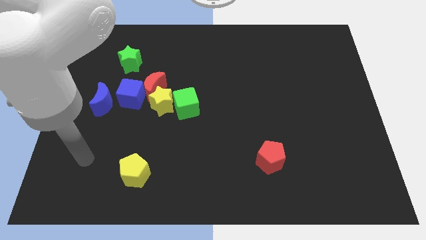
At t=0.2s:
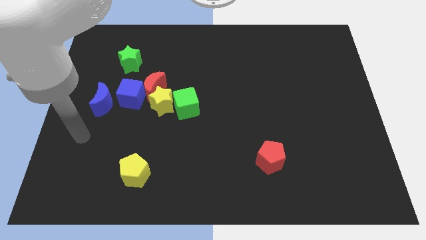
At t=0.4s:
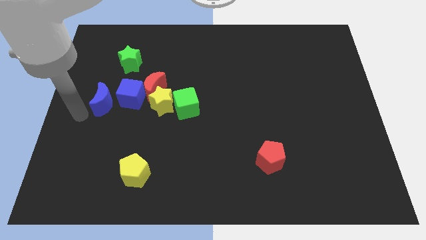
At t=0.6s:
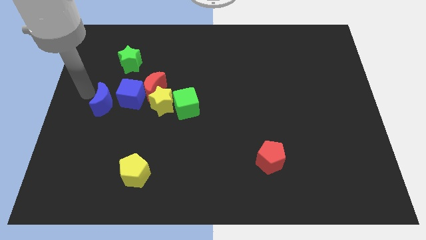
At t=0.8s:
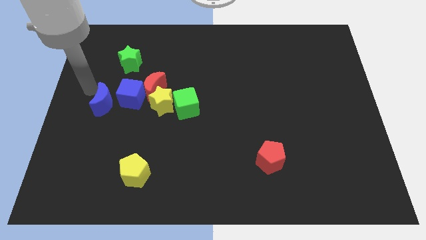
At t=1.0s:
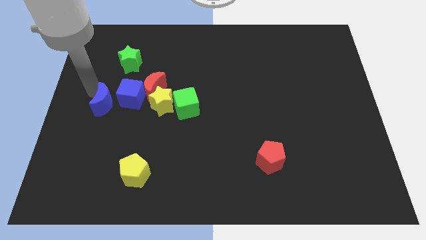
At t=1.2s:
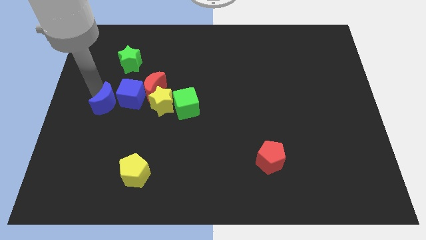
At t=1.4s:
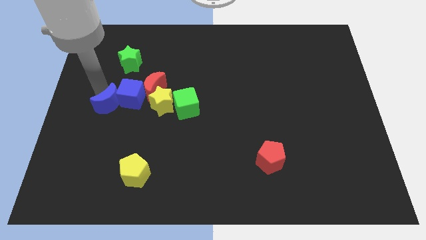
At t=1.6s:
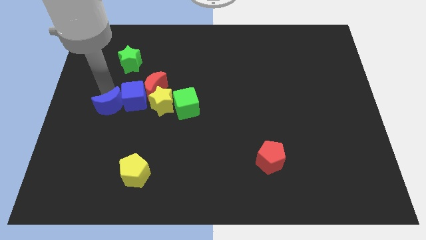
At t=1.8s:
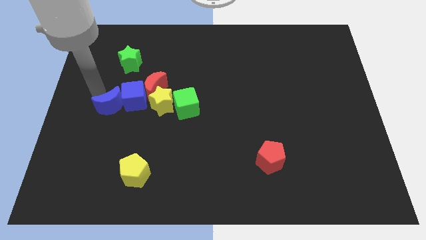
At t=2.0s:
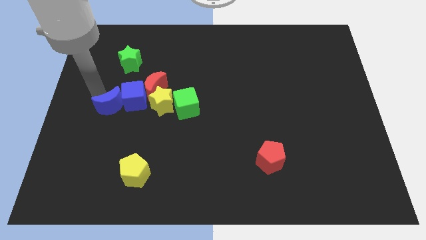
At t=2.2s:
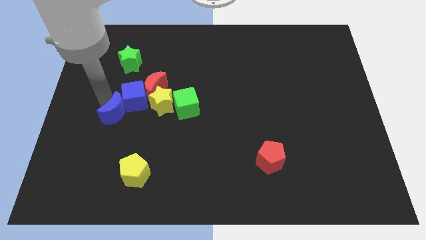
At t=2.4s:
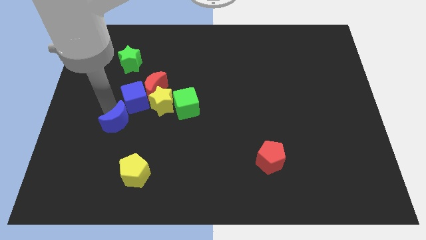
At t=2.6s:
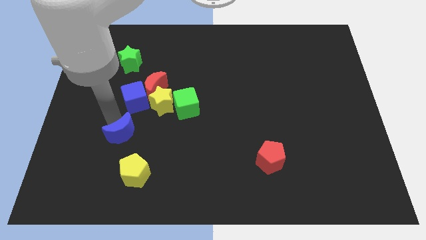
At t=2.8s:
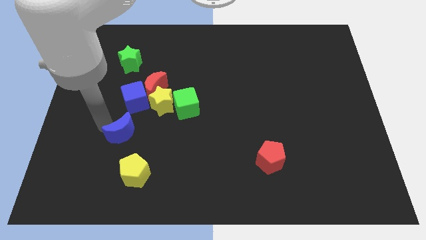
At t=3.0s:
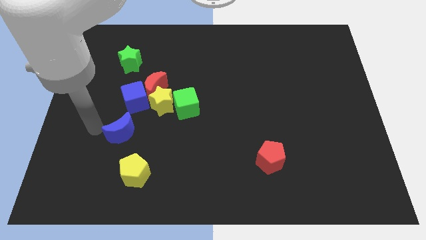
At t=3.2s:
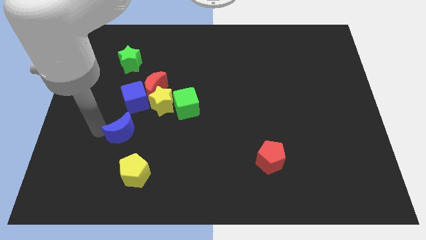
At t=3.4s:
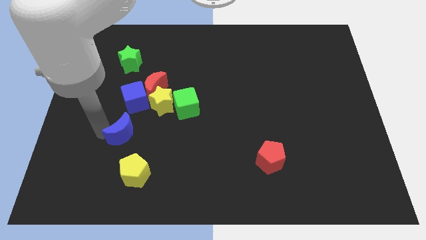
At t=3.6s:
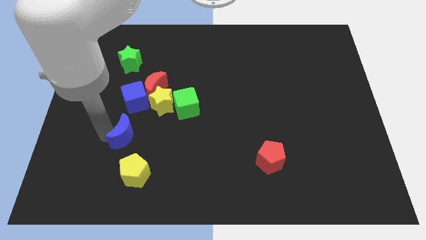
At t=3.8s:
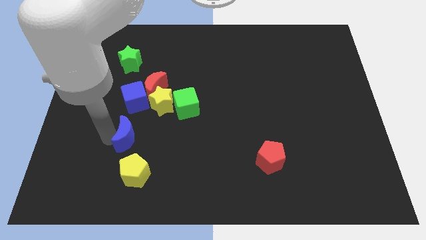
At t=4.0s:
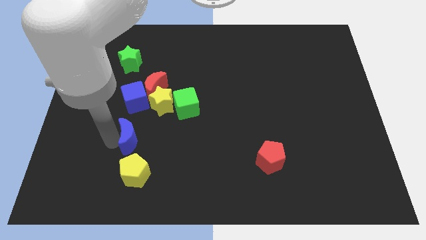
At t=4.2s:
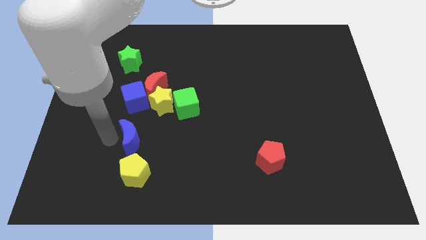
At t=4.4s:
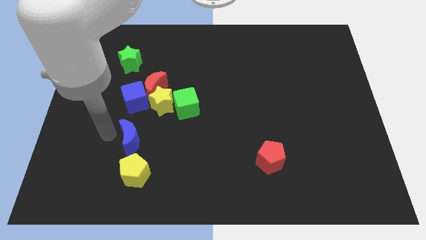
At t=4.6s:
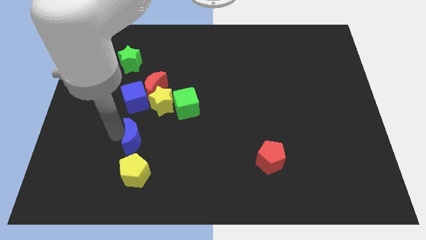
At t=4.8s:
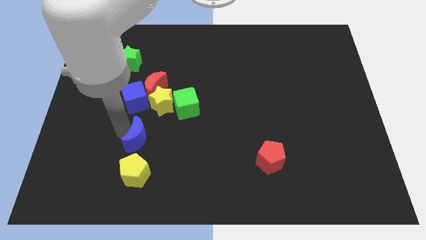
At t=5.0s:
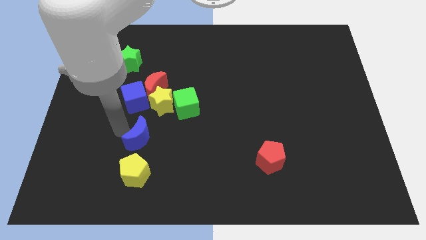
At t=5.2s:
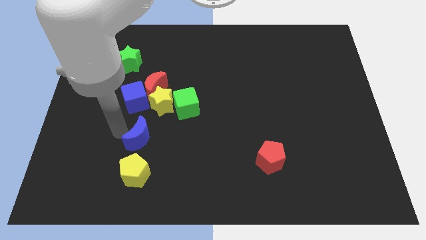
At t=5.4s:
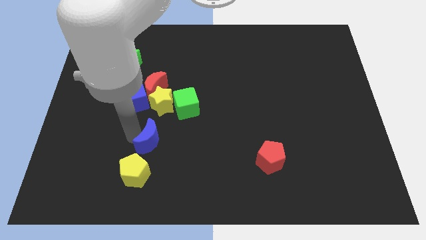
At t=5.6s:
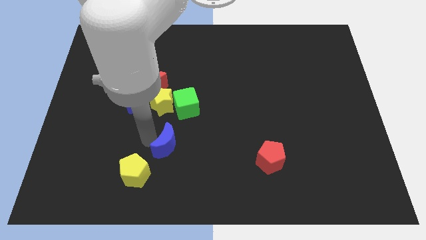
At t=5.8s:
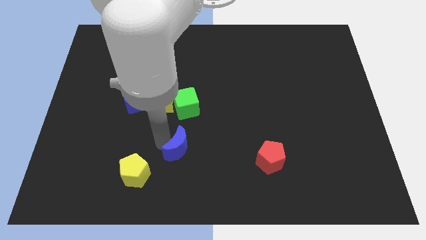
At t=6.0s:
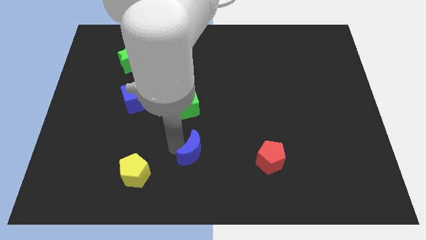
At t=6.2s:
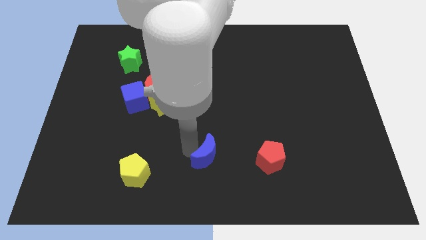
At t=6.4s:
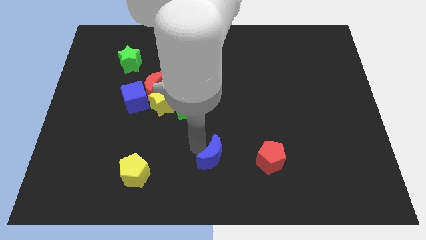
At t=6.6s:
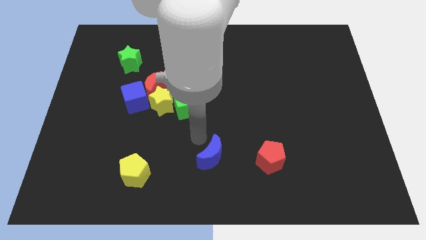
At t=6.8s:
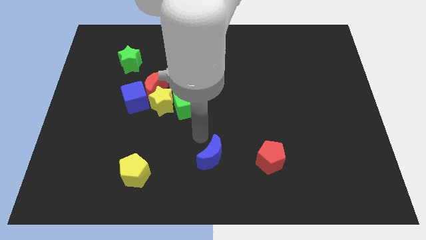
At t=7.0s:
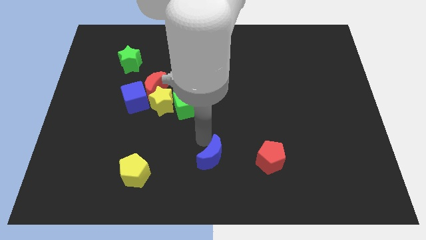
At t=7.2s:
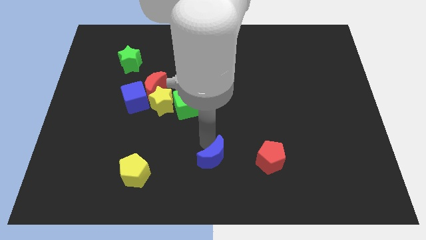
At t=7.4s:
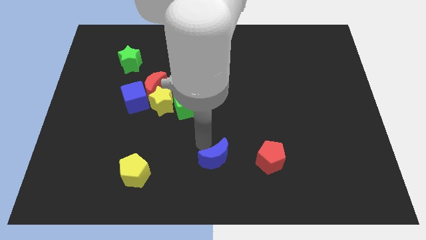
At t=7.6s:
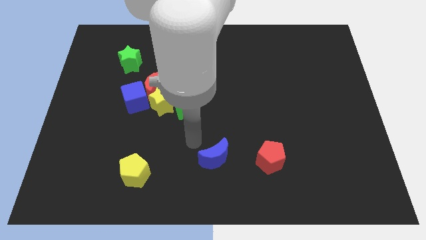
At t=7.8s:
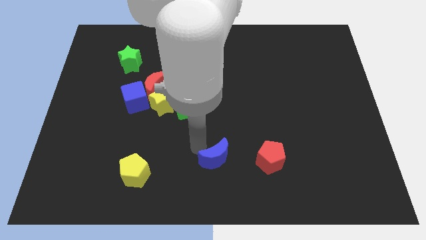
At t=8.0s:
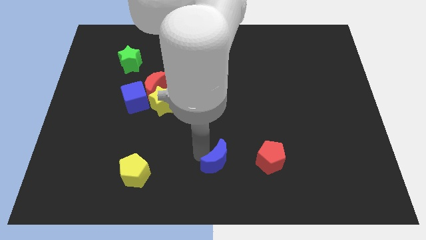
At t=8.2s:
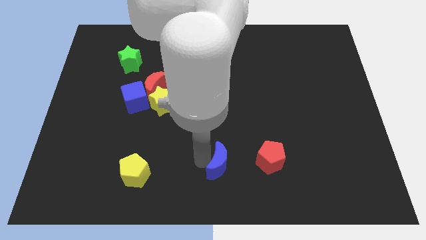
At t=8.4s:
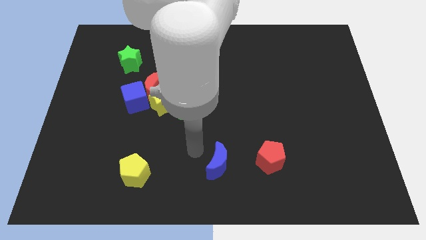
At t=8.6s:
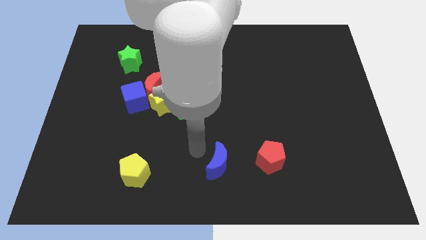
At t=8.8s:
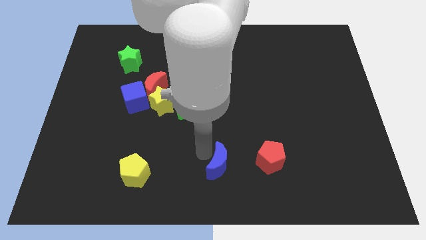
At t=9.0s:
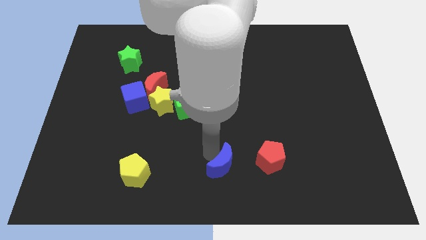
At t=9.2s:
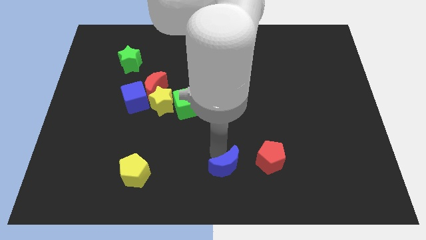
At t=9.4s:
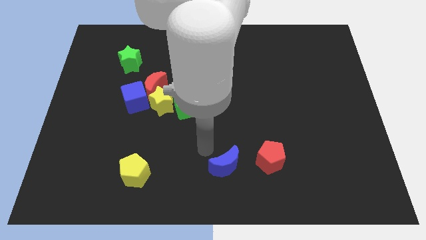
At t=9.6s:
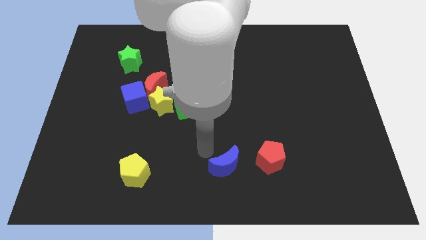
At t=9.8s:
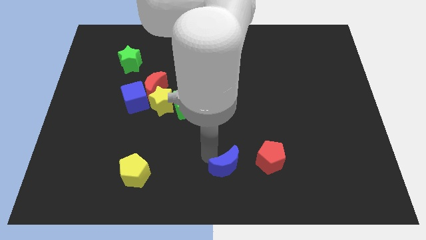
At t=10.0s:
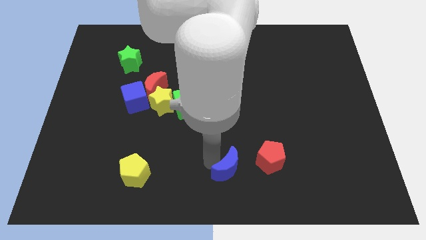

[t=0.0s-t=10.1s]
move the blue moon to the bottom left of the red pentagon

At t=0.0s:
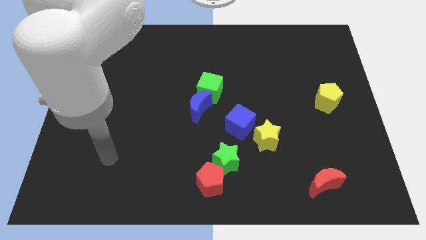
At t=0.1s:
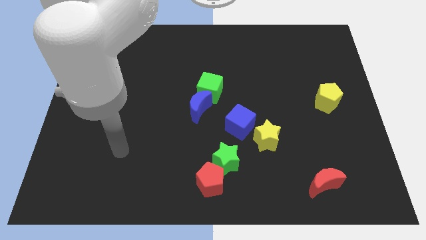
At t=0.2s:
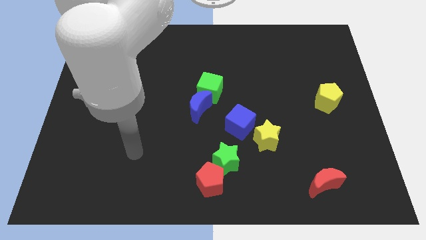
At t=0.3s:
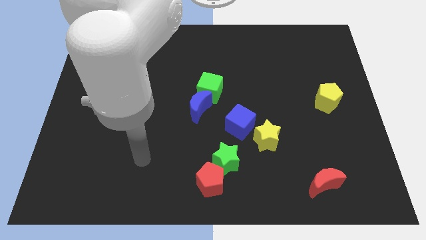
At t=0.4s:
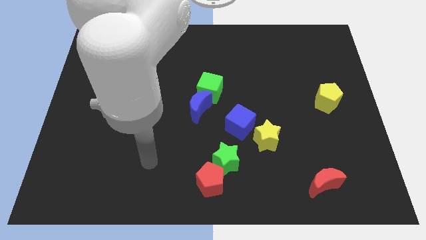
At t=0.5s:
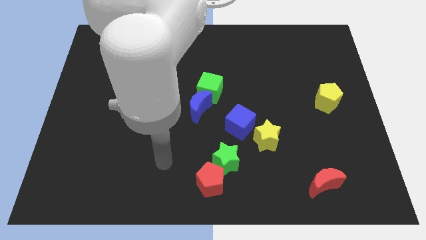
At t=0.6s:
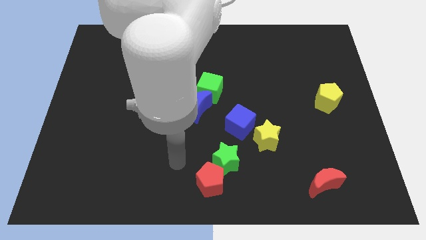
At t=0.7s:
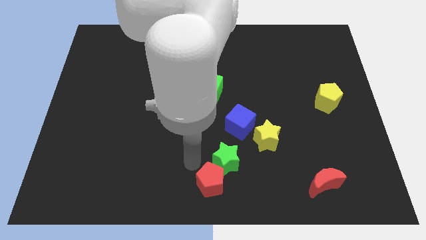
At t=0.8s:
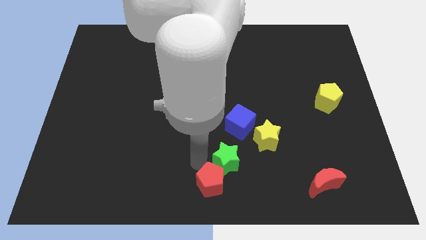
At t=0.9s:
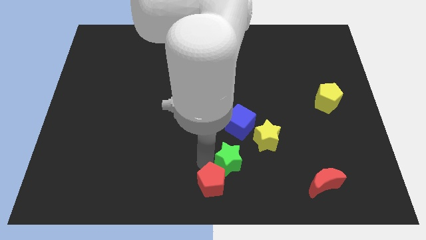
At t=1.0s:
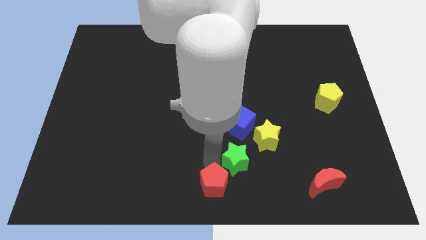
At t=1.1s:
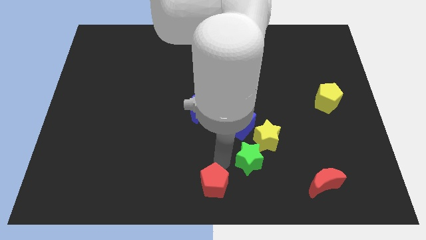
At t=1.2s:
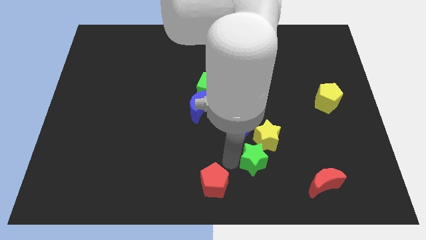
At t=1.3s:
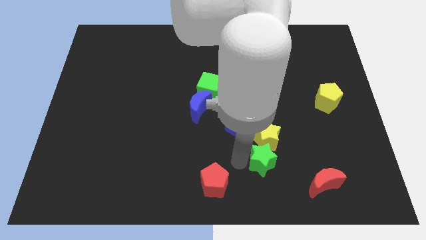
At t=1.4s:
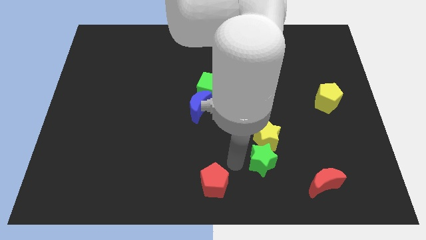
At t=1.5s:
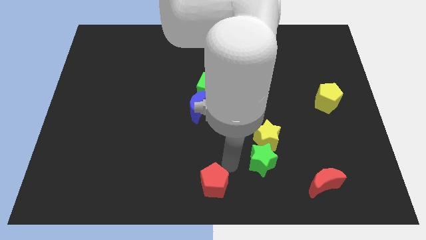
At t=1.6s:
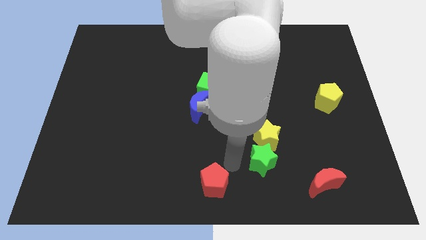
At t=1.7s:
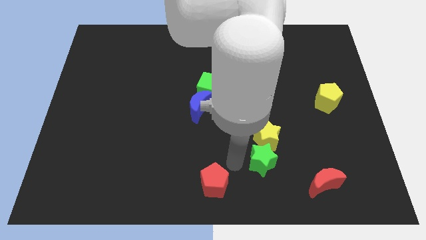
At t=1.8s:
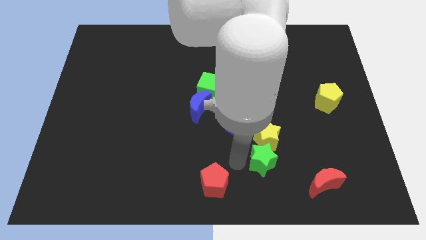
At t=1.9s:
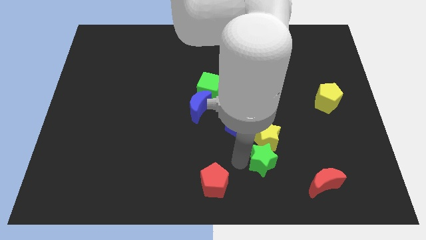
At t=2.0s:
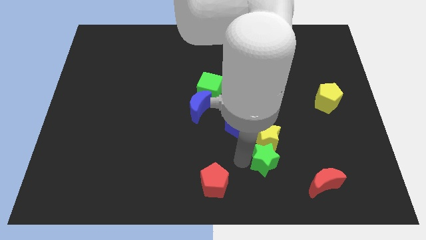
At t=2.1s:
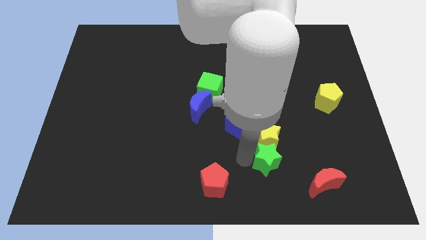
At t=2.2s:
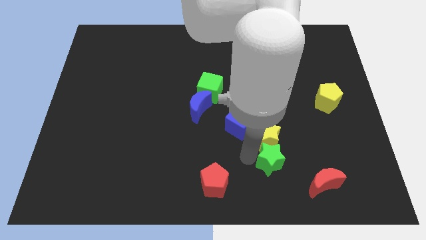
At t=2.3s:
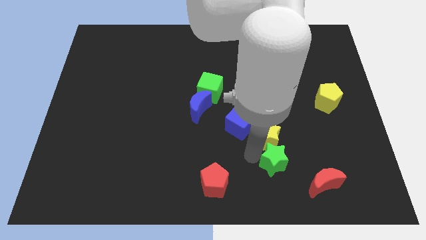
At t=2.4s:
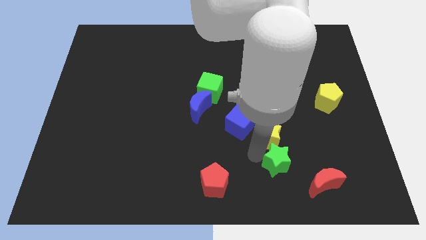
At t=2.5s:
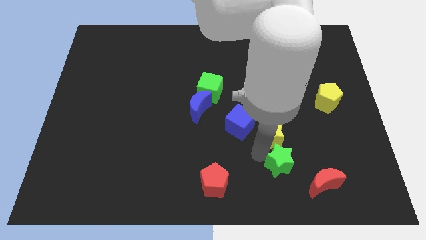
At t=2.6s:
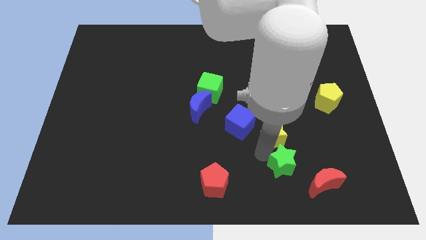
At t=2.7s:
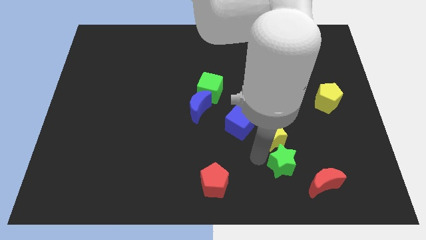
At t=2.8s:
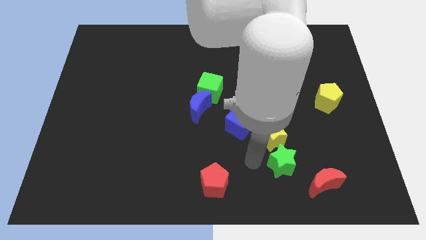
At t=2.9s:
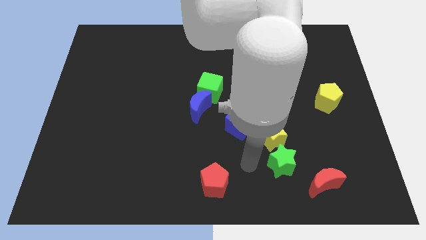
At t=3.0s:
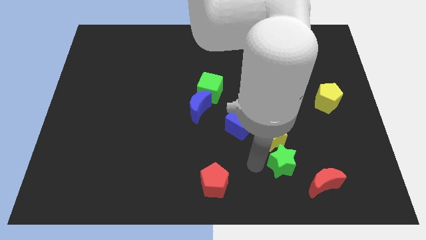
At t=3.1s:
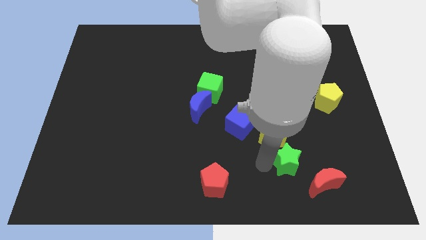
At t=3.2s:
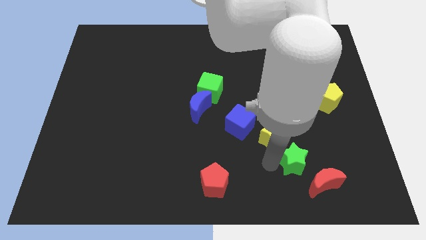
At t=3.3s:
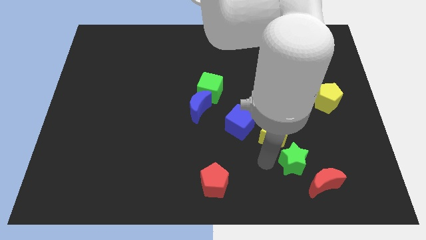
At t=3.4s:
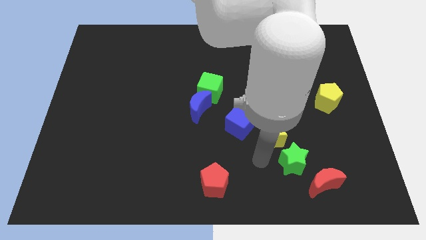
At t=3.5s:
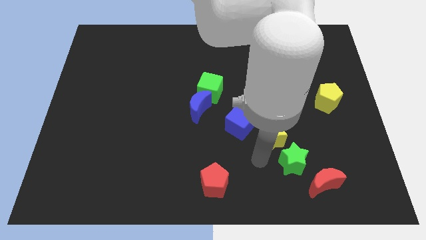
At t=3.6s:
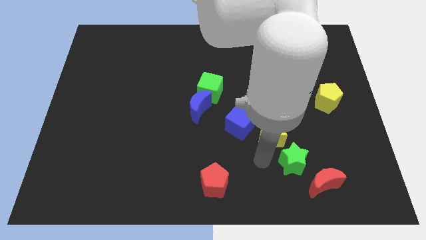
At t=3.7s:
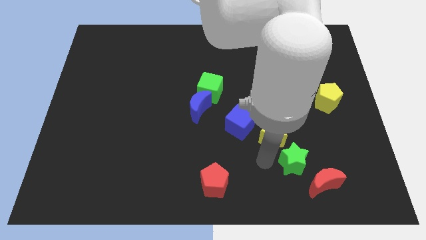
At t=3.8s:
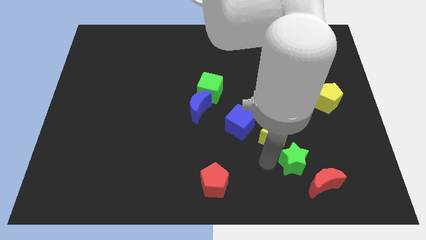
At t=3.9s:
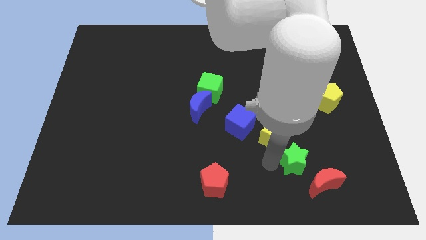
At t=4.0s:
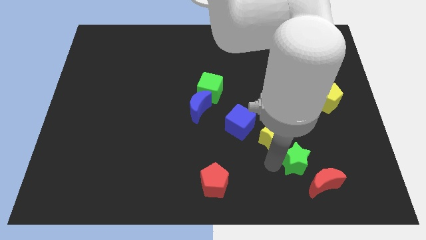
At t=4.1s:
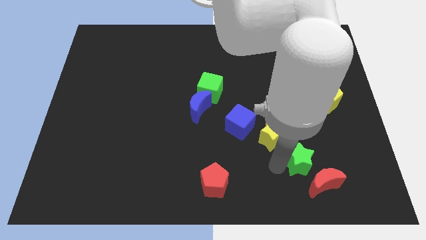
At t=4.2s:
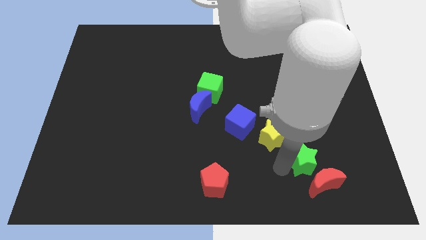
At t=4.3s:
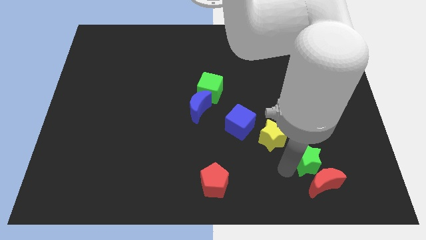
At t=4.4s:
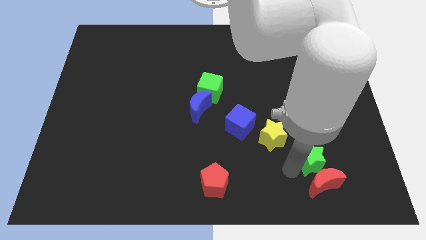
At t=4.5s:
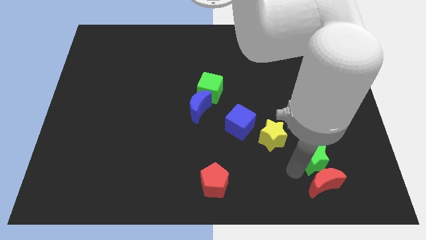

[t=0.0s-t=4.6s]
move the green star to the top right side of the red moon
